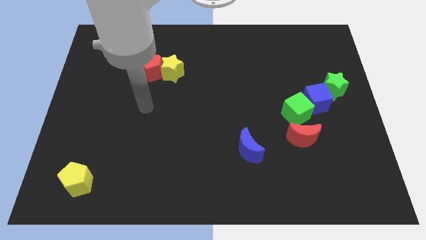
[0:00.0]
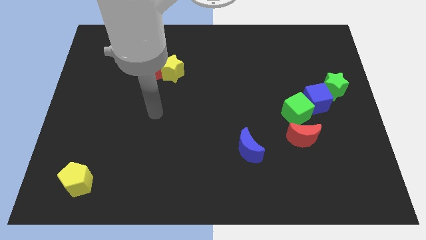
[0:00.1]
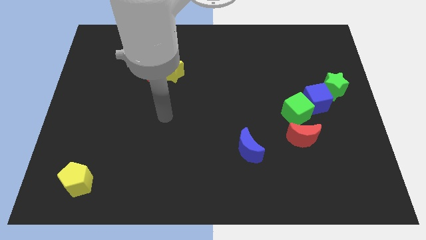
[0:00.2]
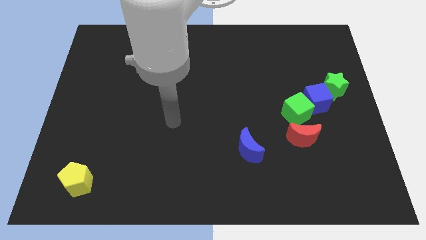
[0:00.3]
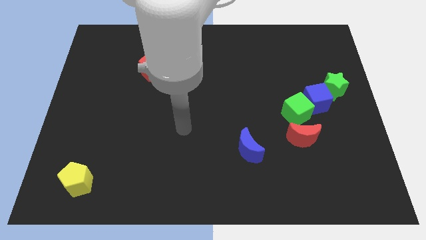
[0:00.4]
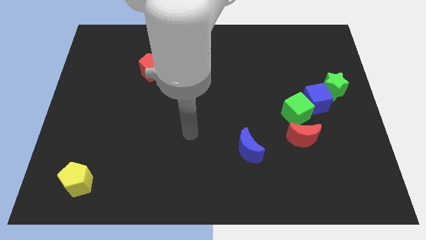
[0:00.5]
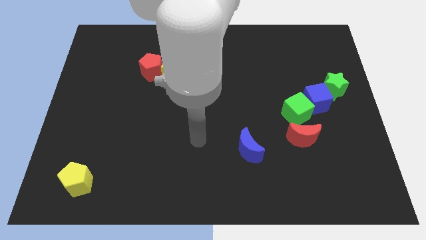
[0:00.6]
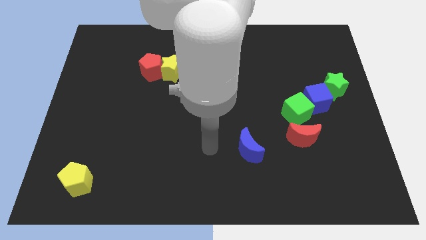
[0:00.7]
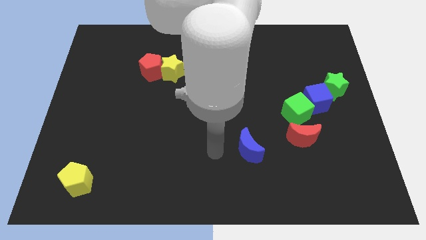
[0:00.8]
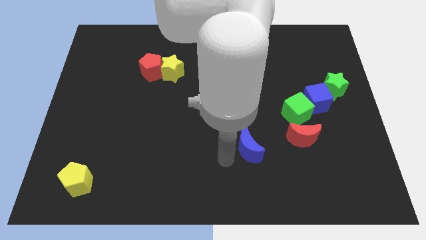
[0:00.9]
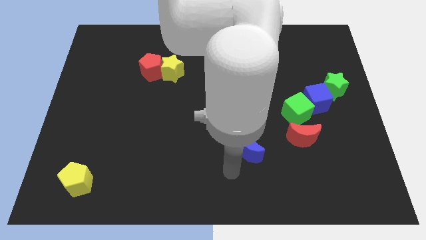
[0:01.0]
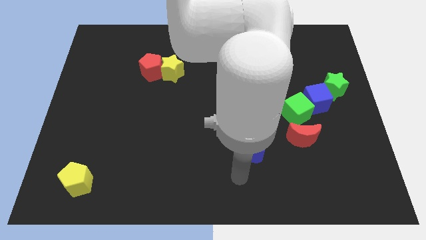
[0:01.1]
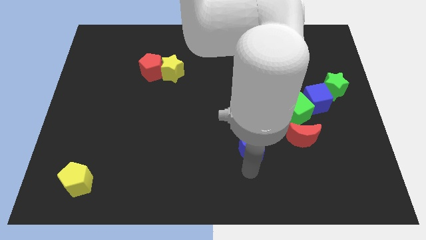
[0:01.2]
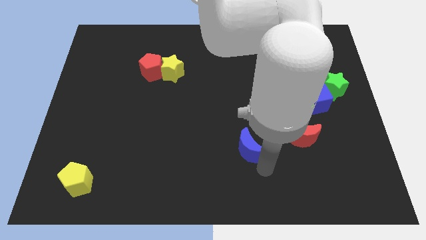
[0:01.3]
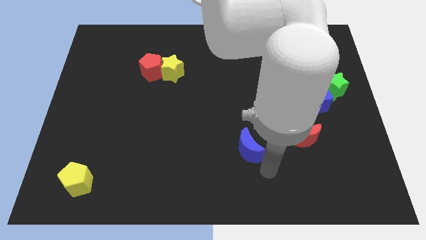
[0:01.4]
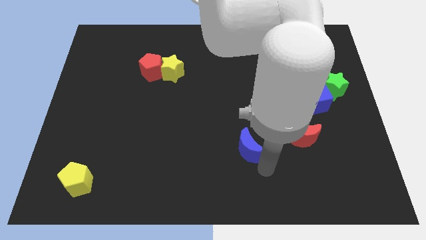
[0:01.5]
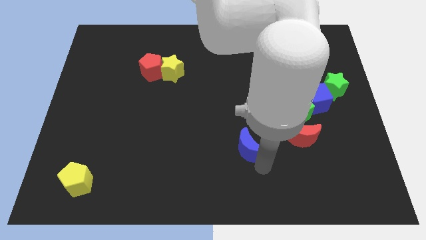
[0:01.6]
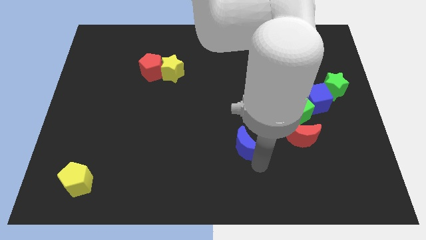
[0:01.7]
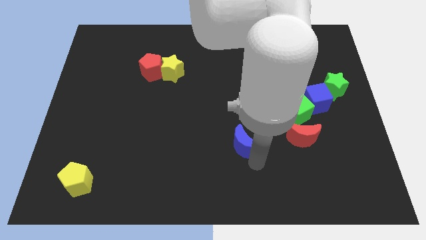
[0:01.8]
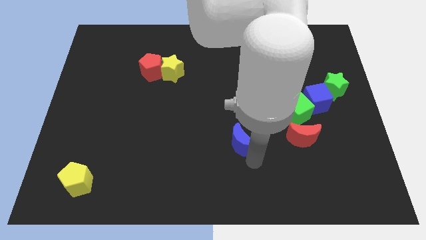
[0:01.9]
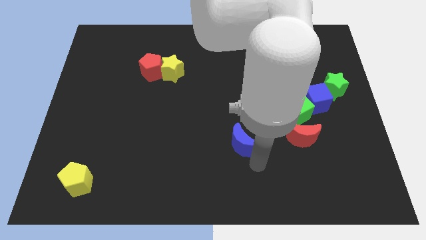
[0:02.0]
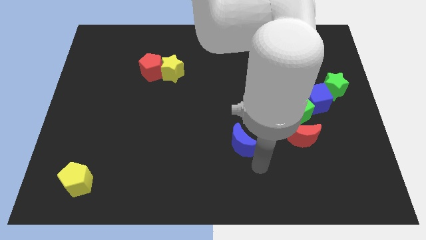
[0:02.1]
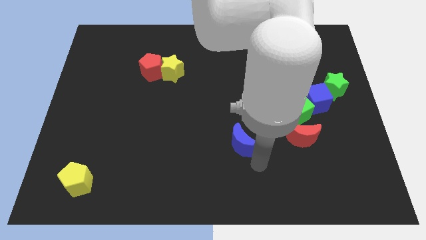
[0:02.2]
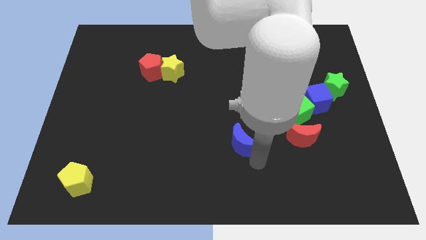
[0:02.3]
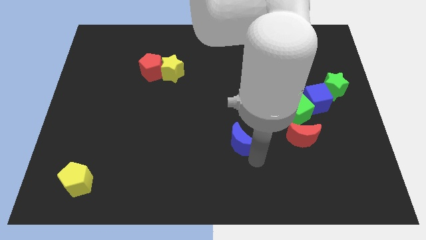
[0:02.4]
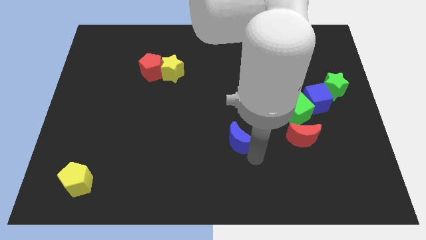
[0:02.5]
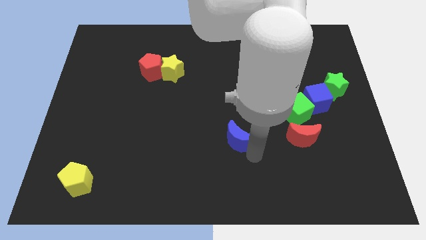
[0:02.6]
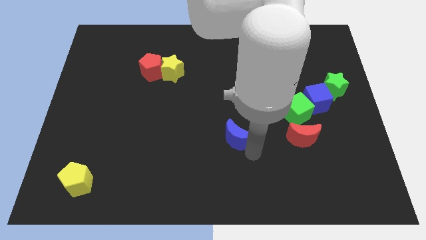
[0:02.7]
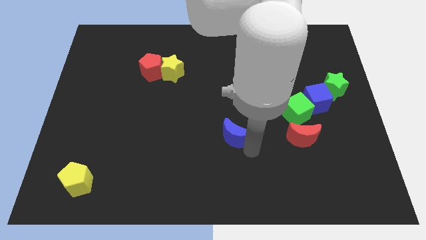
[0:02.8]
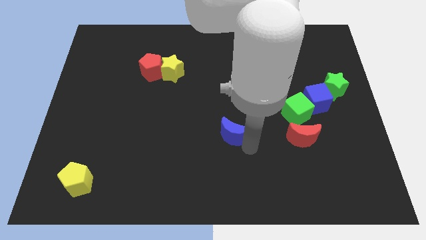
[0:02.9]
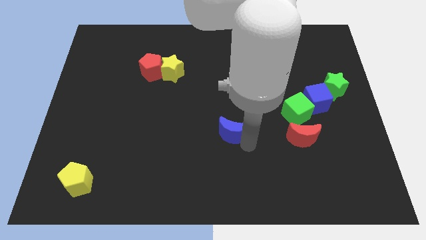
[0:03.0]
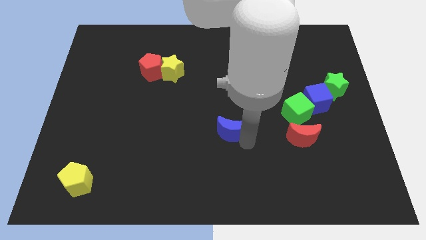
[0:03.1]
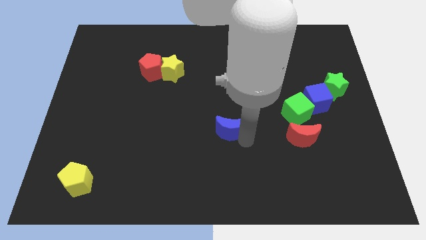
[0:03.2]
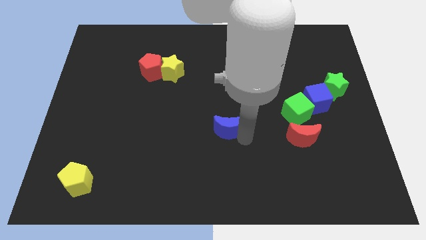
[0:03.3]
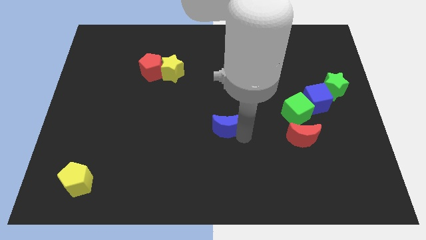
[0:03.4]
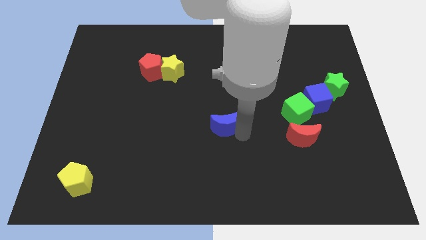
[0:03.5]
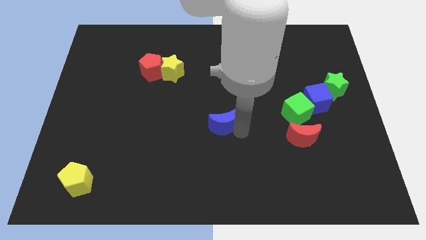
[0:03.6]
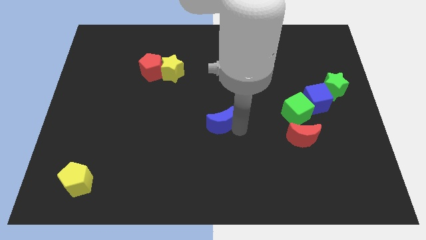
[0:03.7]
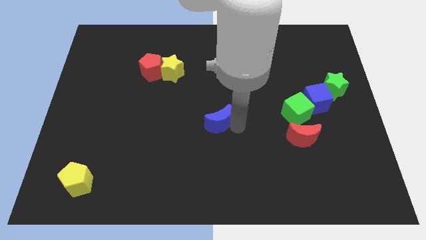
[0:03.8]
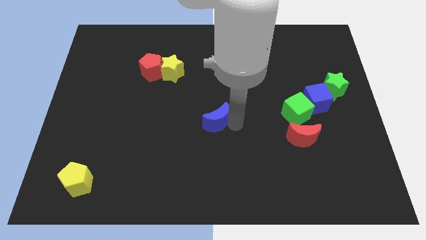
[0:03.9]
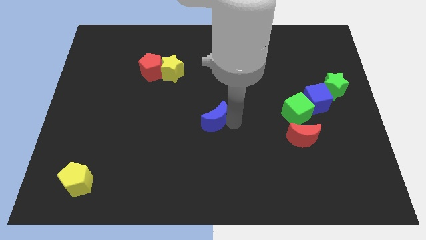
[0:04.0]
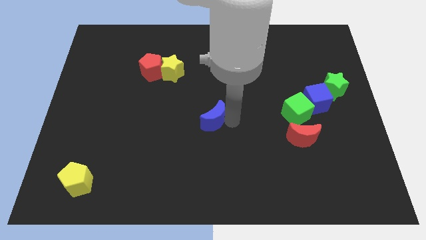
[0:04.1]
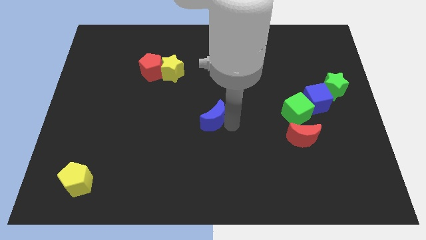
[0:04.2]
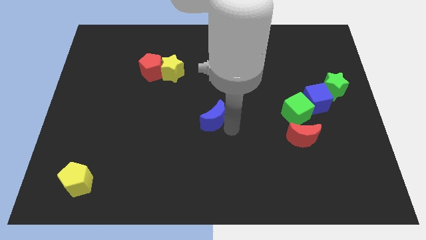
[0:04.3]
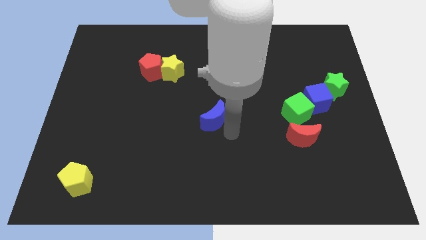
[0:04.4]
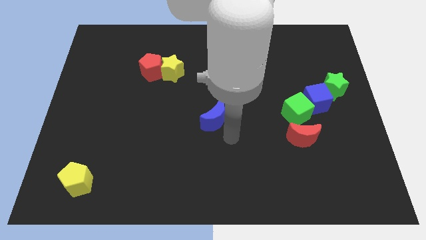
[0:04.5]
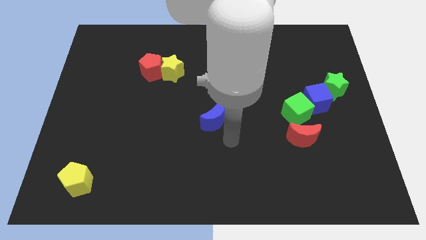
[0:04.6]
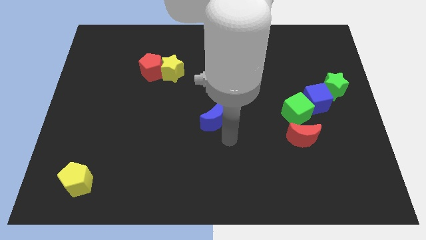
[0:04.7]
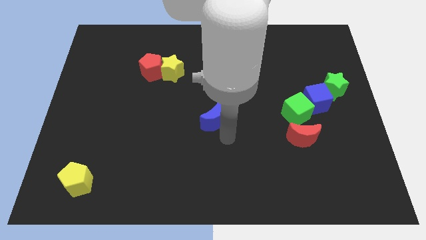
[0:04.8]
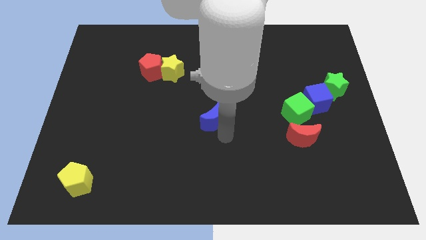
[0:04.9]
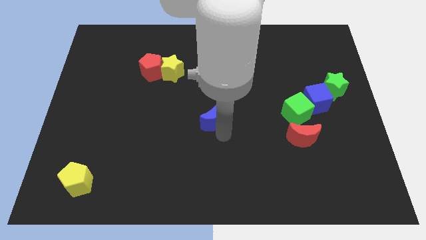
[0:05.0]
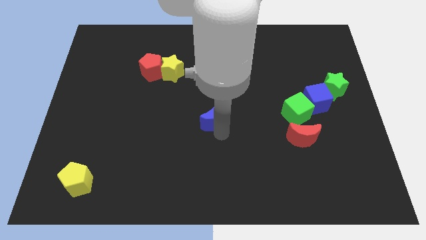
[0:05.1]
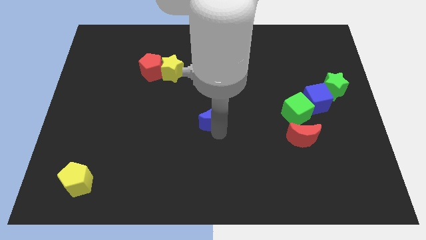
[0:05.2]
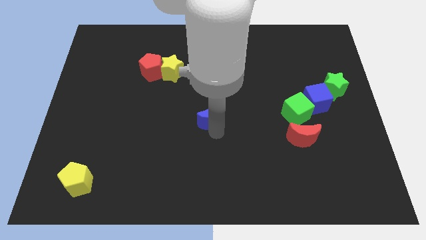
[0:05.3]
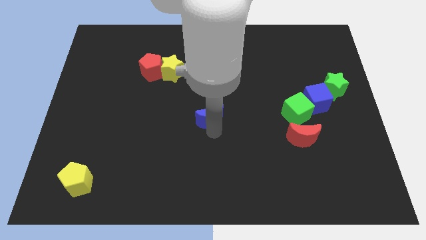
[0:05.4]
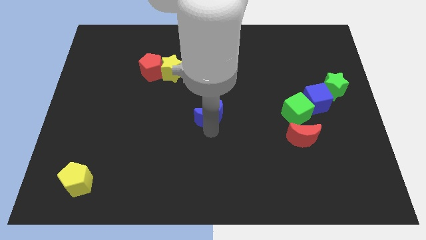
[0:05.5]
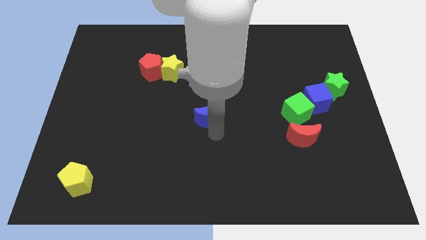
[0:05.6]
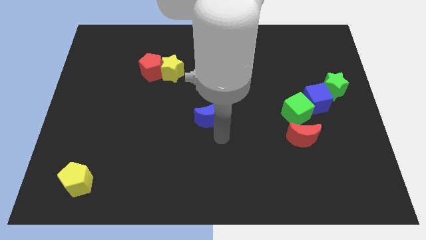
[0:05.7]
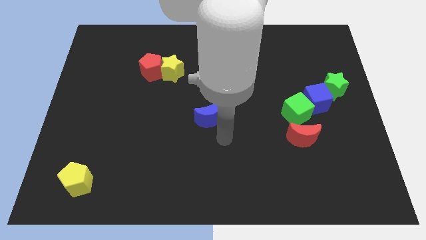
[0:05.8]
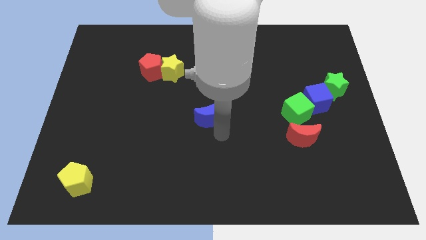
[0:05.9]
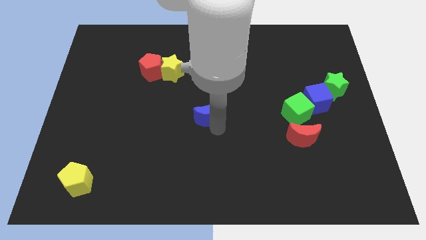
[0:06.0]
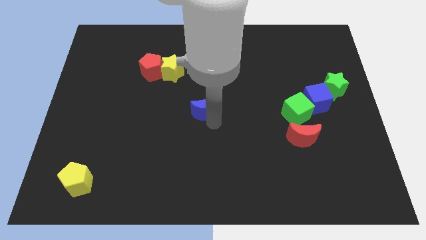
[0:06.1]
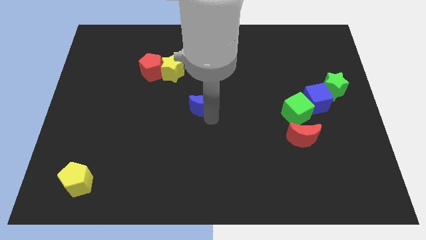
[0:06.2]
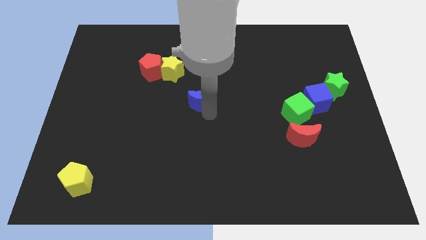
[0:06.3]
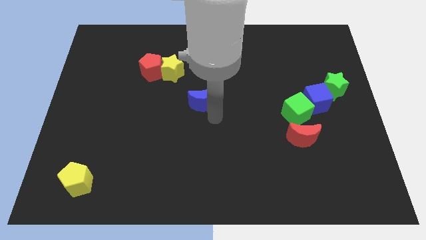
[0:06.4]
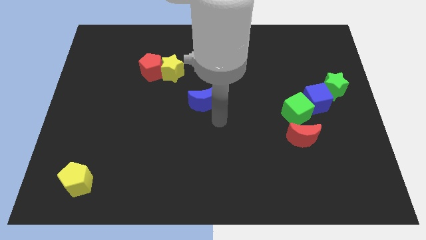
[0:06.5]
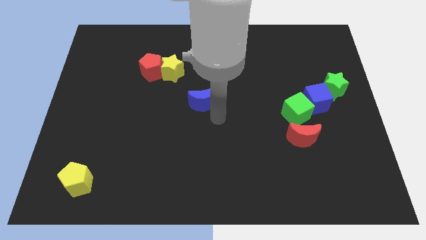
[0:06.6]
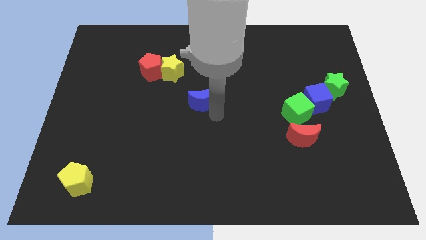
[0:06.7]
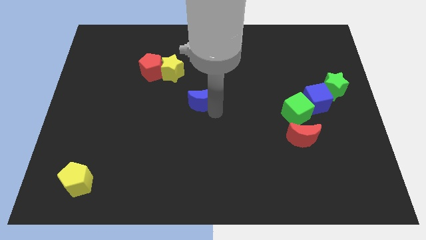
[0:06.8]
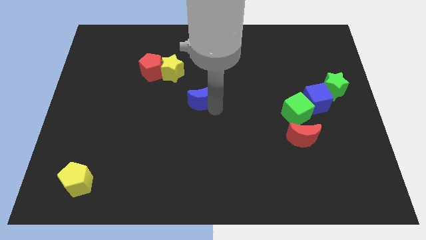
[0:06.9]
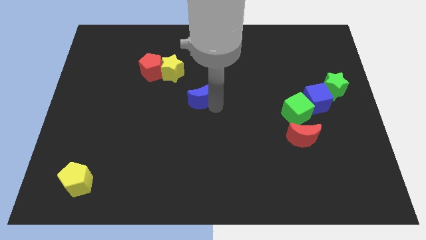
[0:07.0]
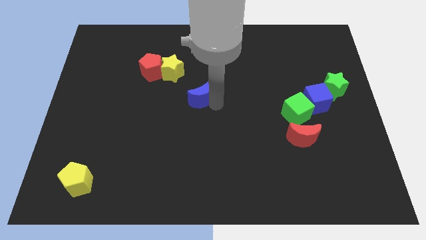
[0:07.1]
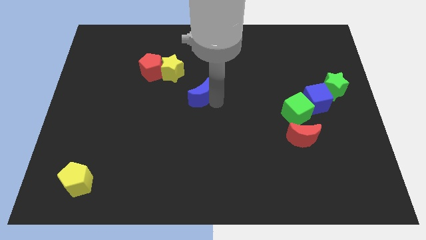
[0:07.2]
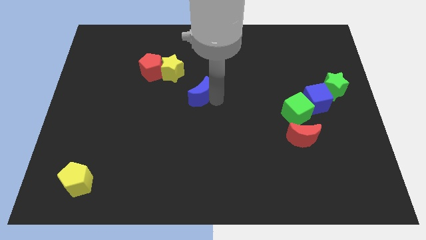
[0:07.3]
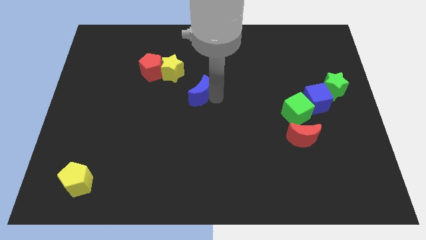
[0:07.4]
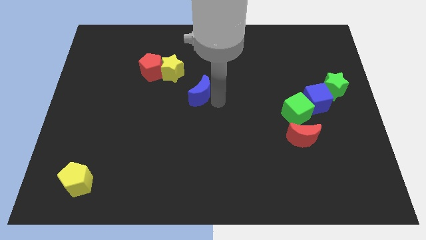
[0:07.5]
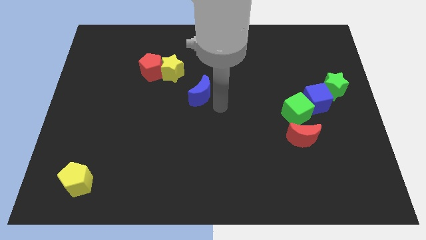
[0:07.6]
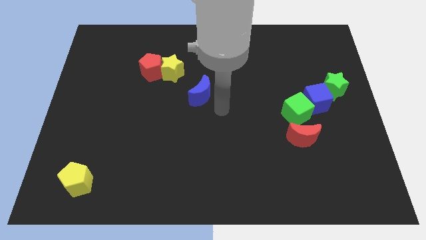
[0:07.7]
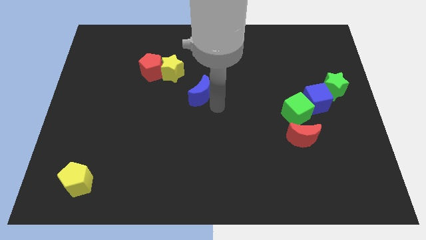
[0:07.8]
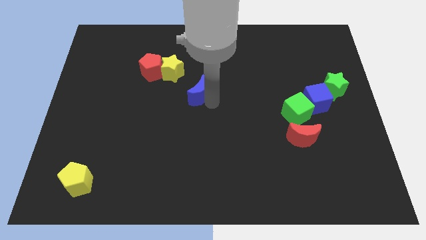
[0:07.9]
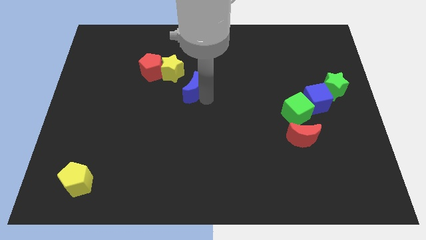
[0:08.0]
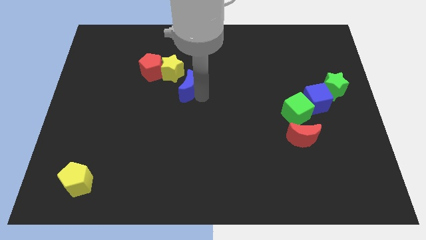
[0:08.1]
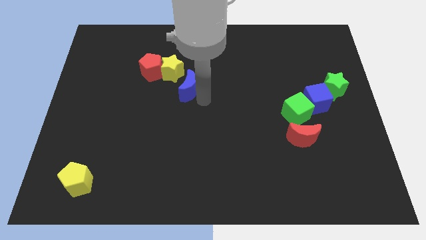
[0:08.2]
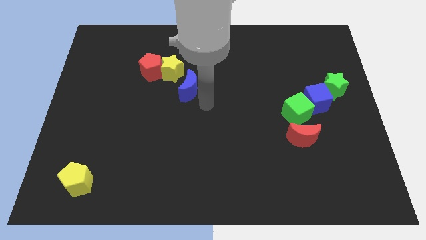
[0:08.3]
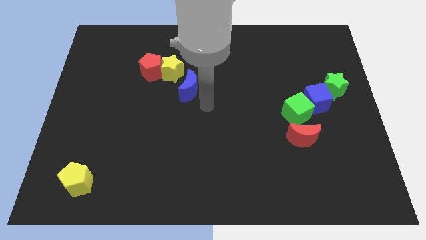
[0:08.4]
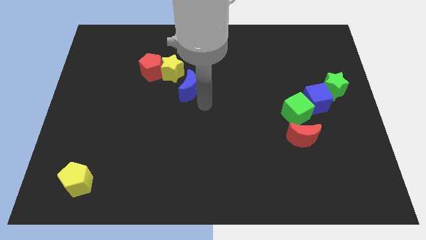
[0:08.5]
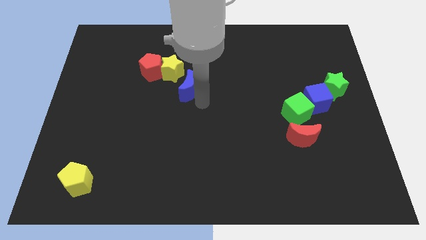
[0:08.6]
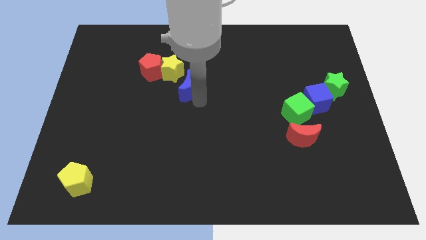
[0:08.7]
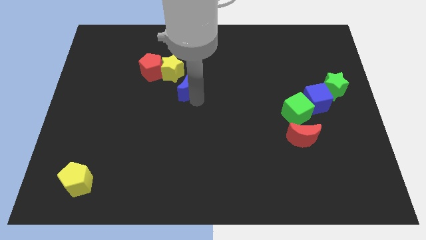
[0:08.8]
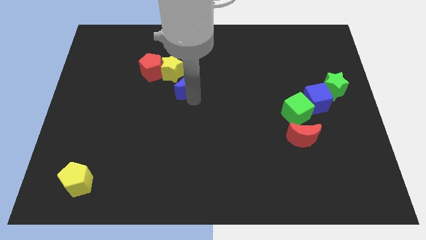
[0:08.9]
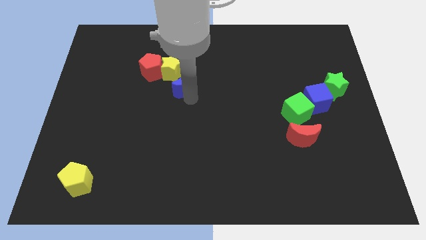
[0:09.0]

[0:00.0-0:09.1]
move the blue moon towards the yellow star
